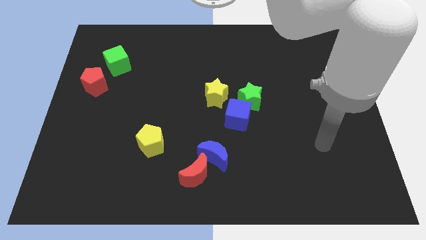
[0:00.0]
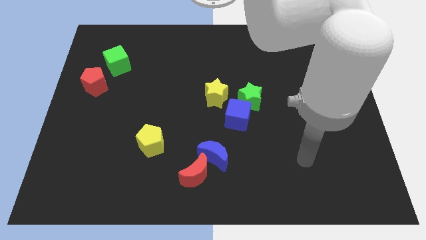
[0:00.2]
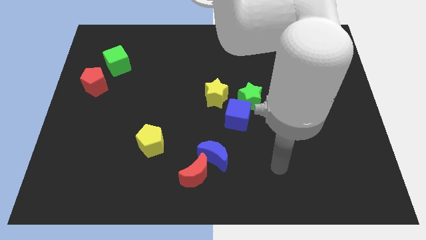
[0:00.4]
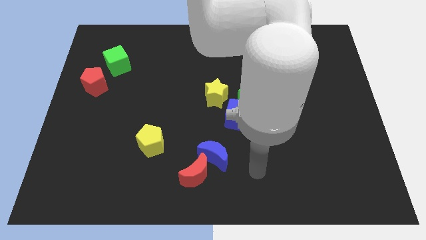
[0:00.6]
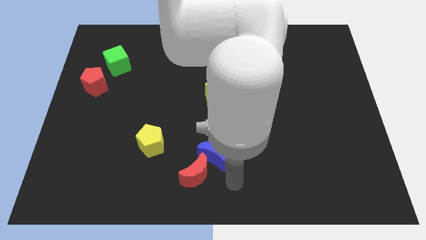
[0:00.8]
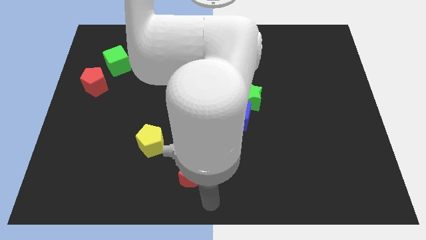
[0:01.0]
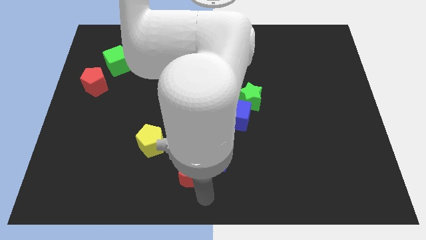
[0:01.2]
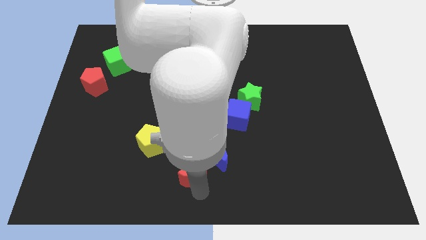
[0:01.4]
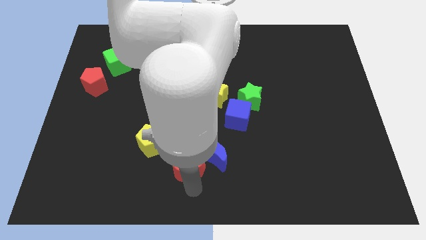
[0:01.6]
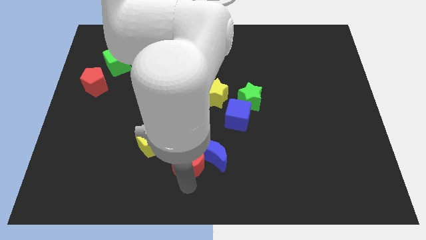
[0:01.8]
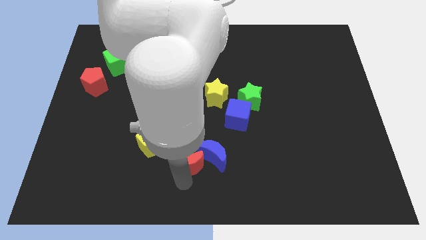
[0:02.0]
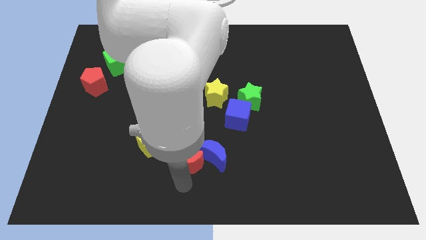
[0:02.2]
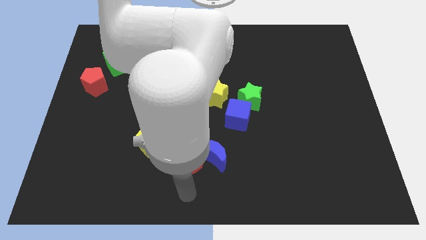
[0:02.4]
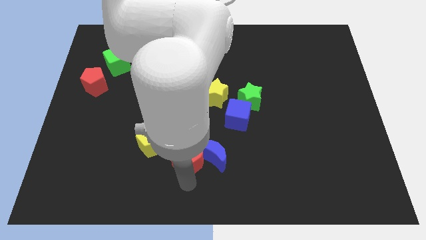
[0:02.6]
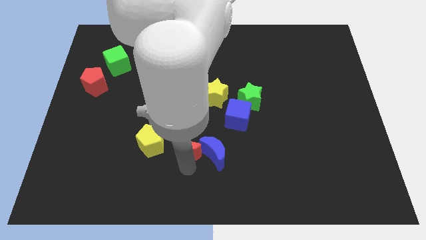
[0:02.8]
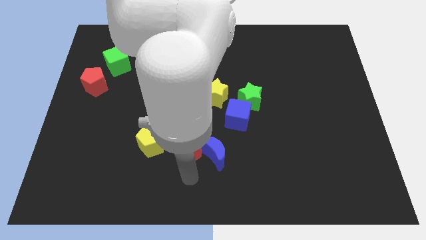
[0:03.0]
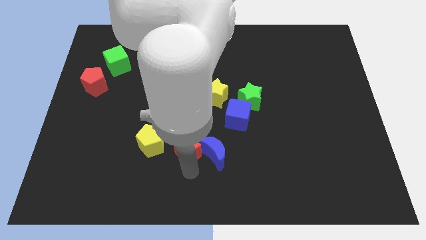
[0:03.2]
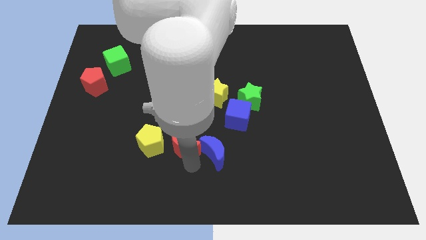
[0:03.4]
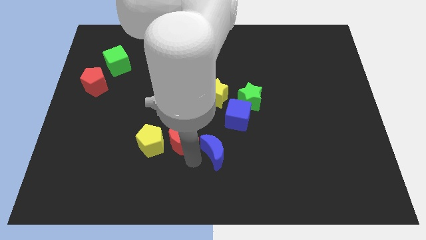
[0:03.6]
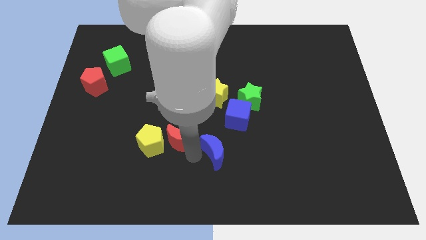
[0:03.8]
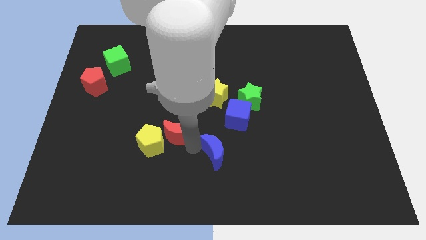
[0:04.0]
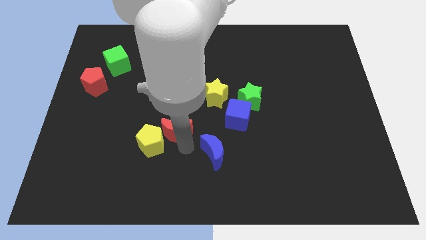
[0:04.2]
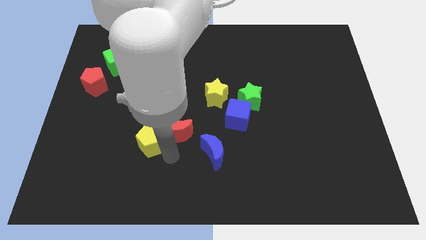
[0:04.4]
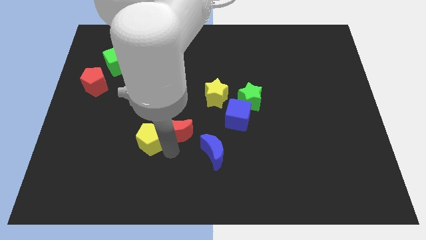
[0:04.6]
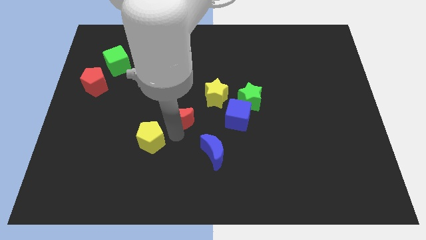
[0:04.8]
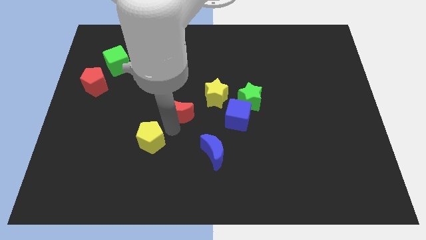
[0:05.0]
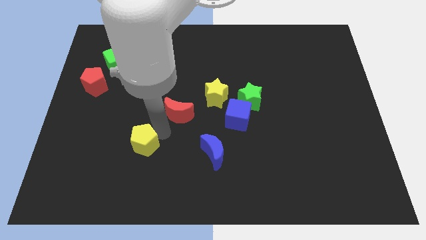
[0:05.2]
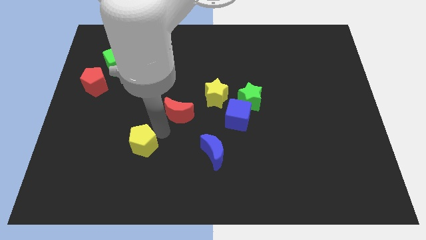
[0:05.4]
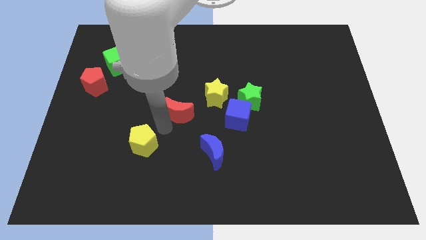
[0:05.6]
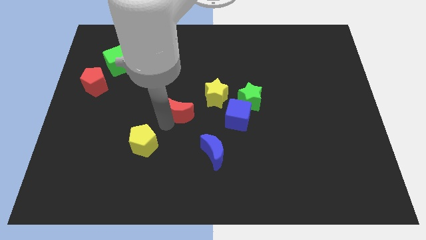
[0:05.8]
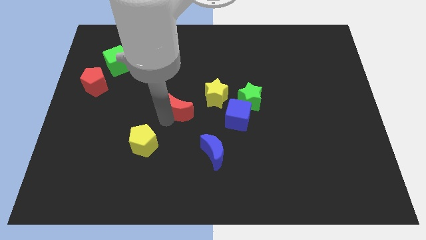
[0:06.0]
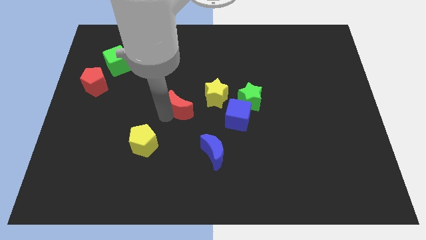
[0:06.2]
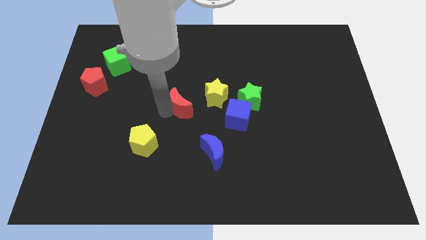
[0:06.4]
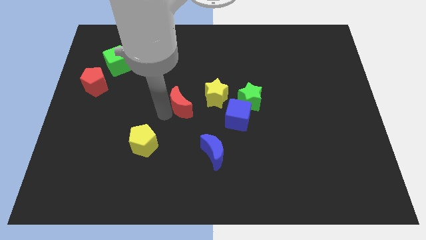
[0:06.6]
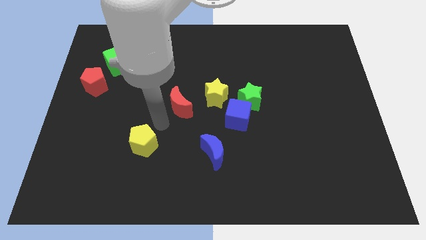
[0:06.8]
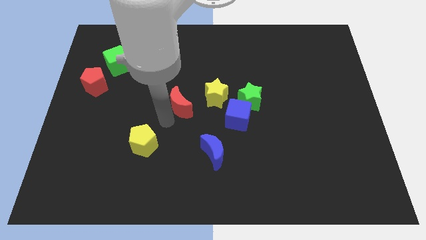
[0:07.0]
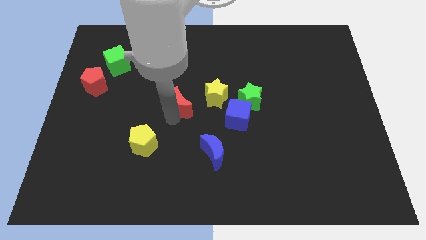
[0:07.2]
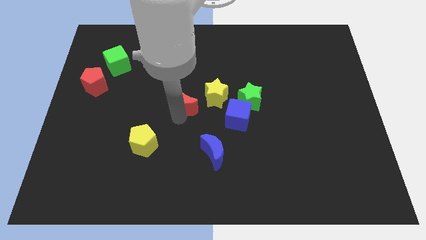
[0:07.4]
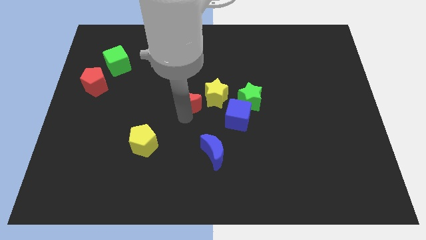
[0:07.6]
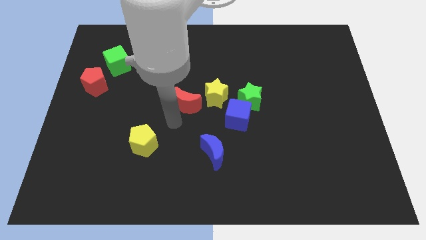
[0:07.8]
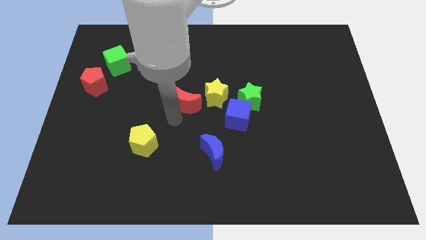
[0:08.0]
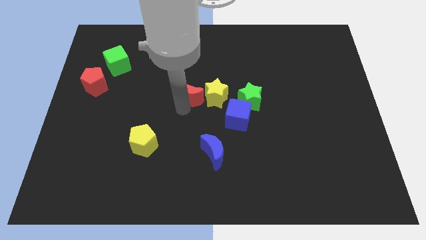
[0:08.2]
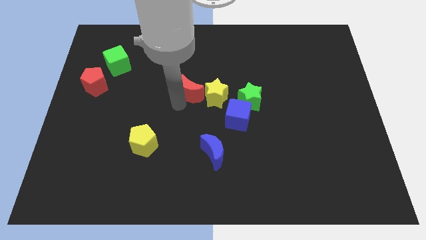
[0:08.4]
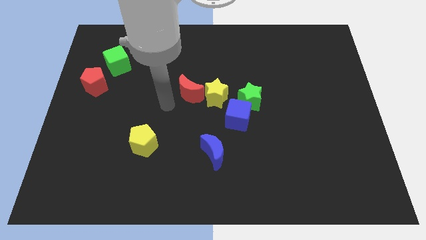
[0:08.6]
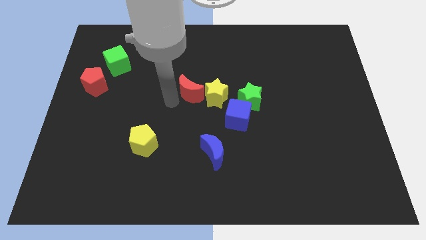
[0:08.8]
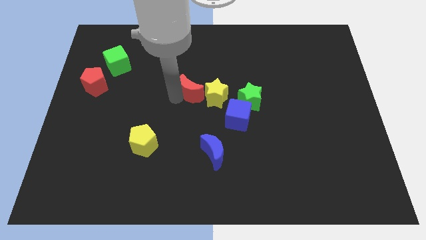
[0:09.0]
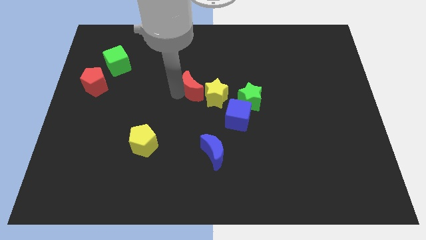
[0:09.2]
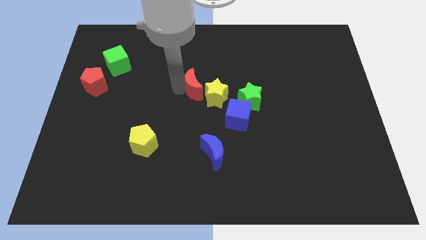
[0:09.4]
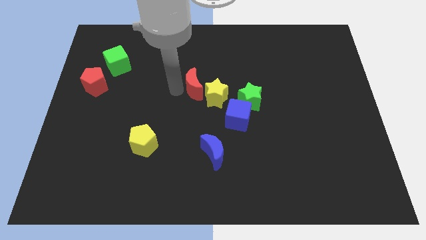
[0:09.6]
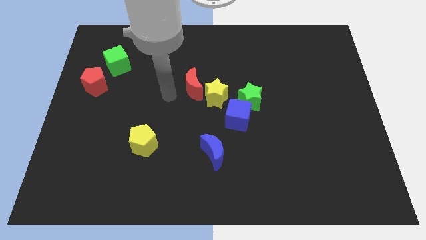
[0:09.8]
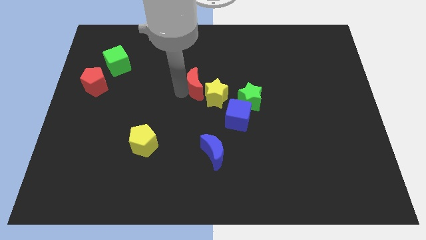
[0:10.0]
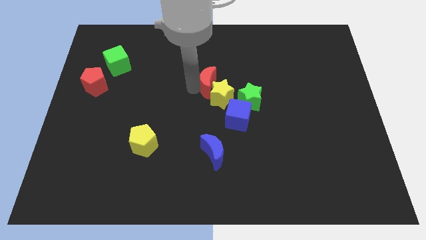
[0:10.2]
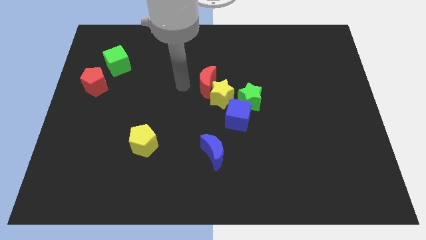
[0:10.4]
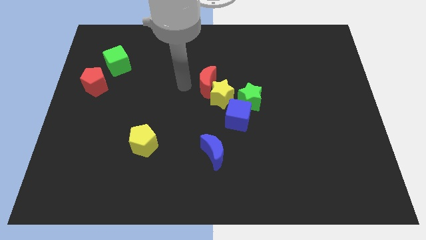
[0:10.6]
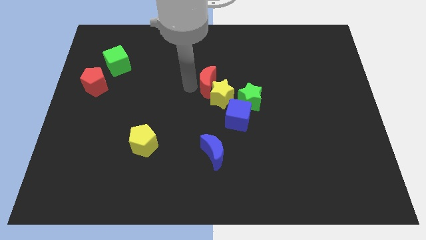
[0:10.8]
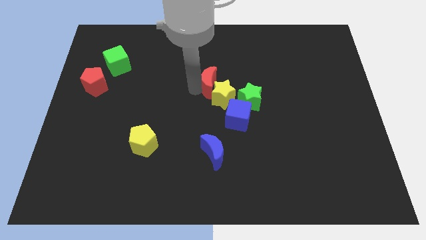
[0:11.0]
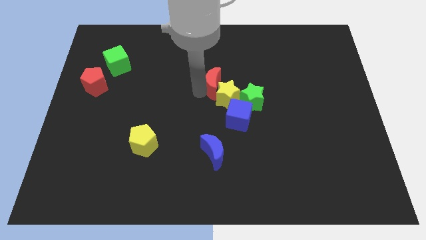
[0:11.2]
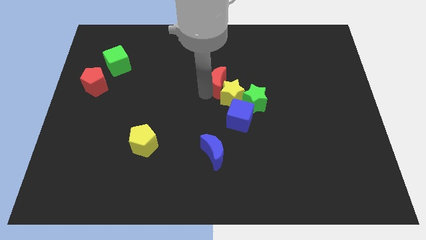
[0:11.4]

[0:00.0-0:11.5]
move the red moon above the blue cube

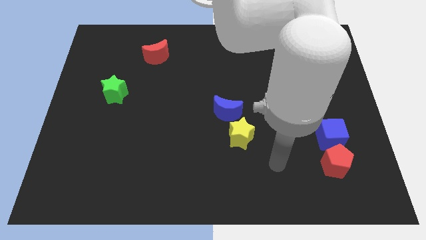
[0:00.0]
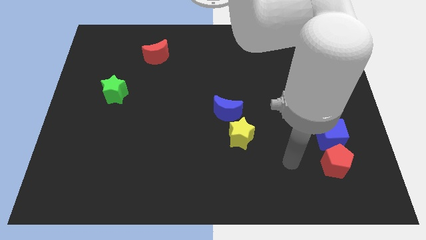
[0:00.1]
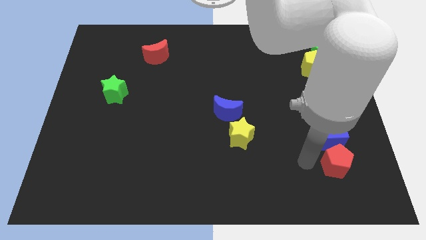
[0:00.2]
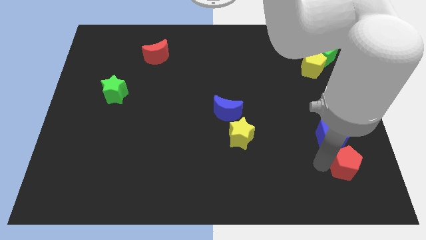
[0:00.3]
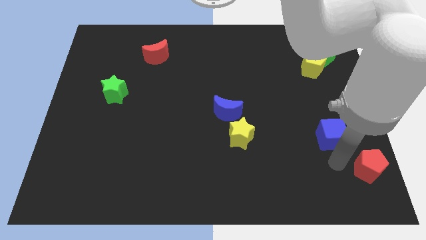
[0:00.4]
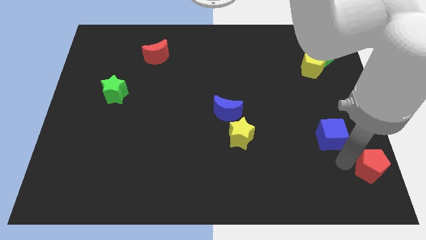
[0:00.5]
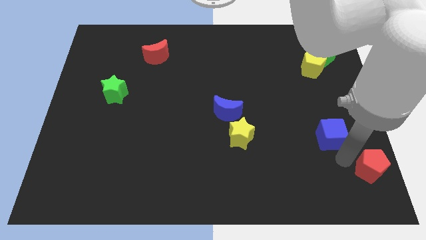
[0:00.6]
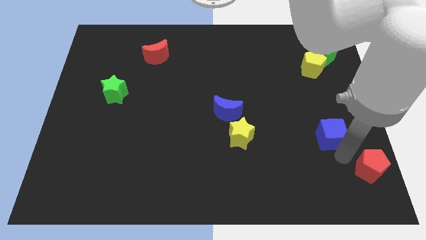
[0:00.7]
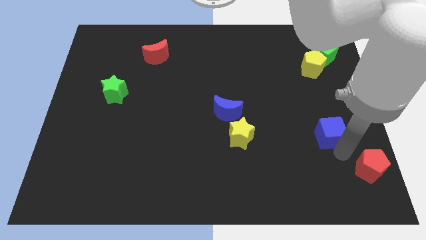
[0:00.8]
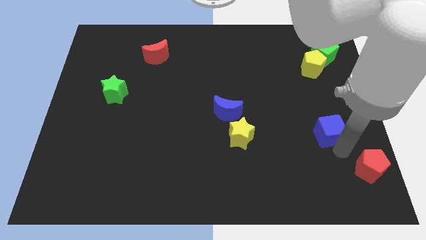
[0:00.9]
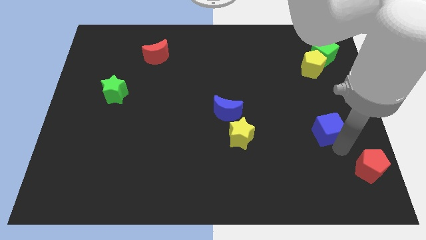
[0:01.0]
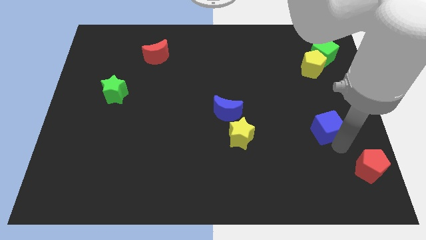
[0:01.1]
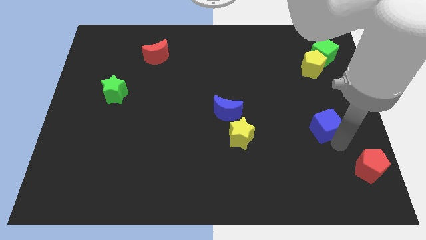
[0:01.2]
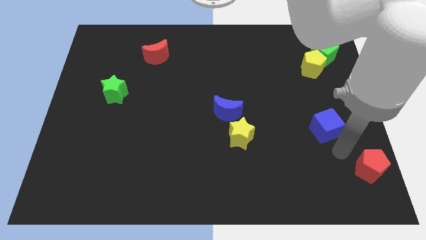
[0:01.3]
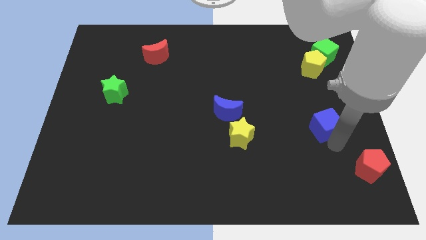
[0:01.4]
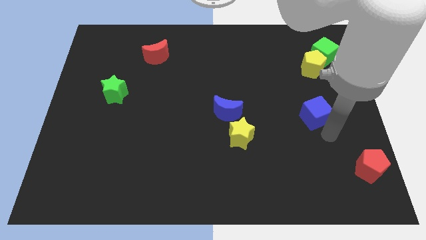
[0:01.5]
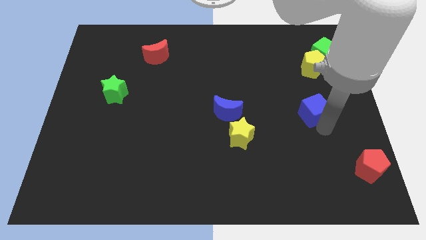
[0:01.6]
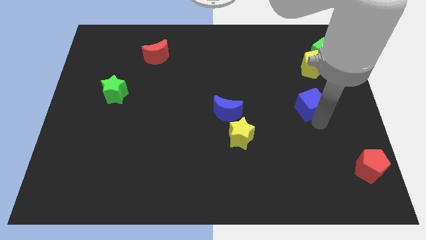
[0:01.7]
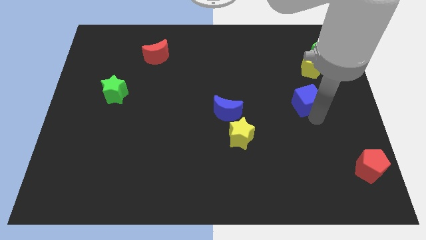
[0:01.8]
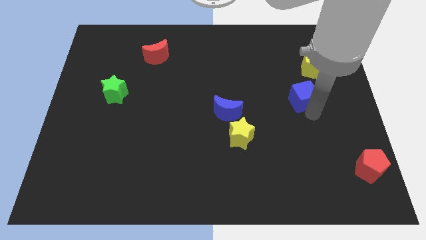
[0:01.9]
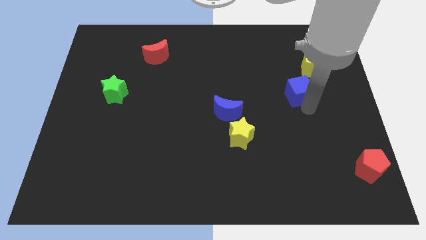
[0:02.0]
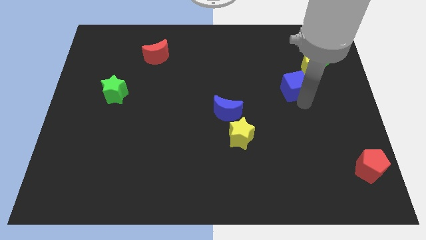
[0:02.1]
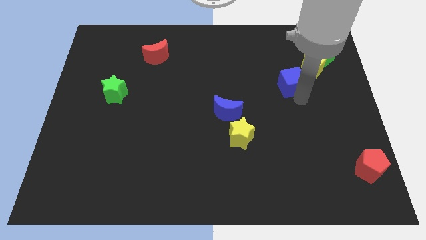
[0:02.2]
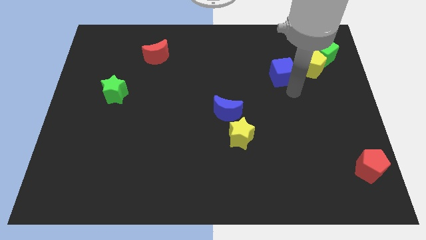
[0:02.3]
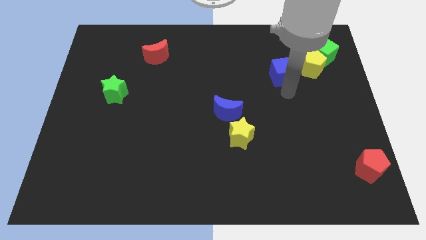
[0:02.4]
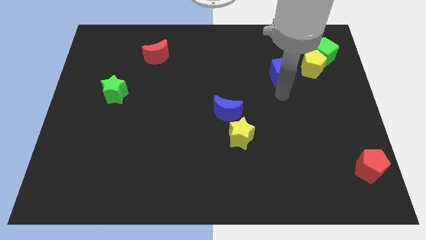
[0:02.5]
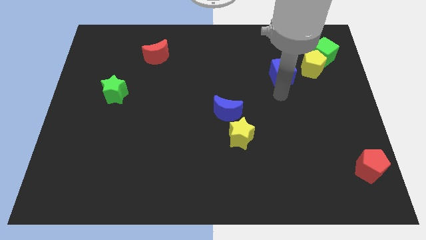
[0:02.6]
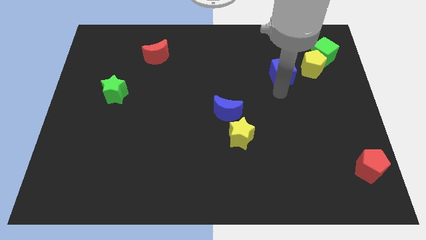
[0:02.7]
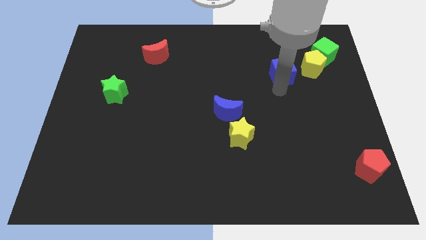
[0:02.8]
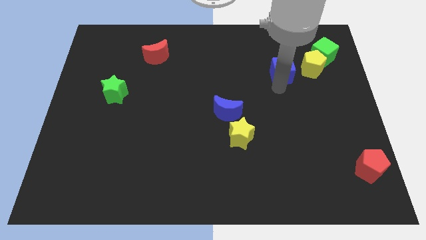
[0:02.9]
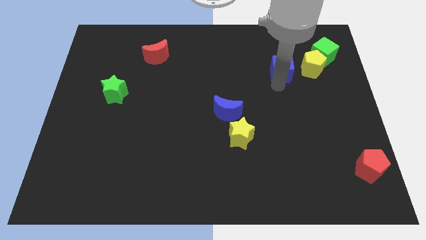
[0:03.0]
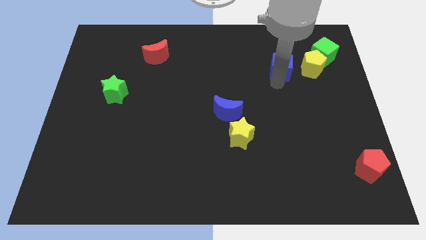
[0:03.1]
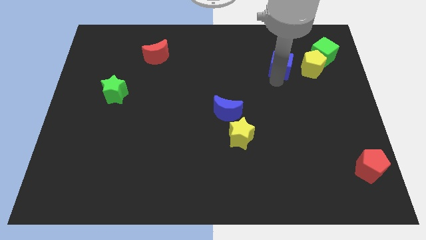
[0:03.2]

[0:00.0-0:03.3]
move the blue cube just left of the green cube
